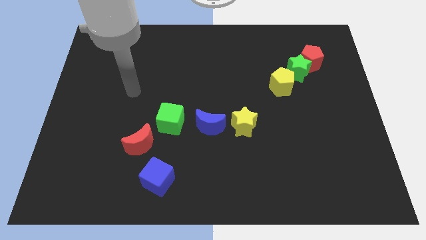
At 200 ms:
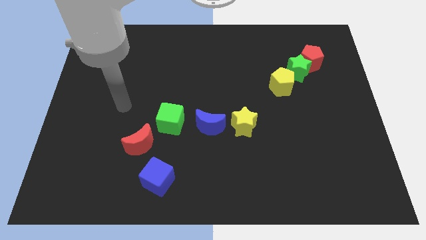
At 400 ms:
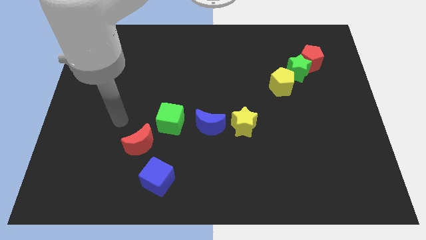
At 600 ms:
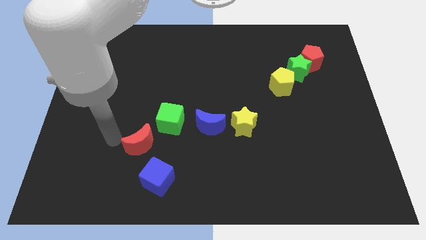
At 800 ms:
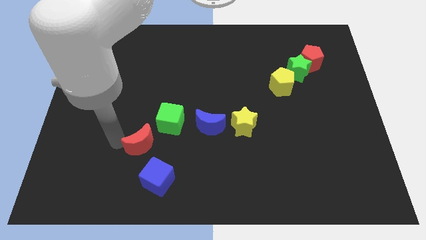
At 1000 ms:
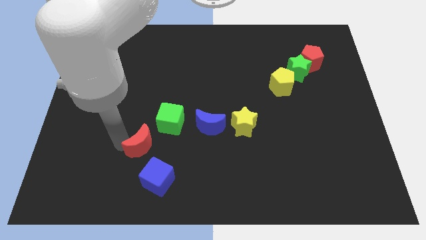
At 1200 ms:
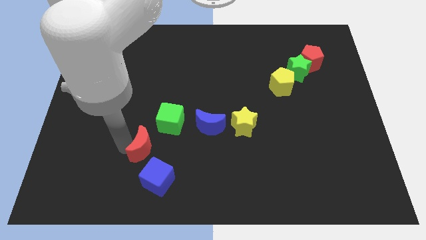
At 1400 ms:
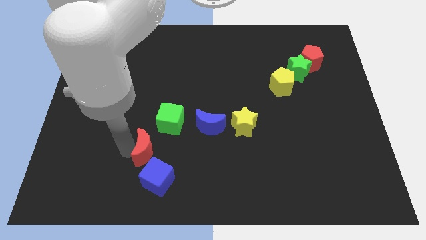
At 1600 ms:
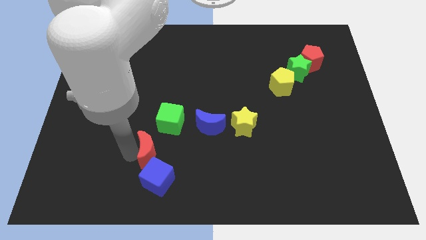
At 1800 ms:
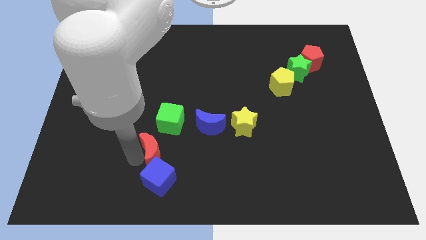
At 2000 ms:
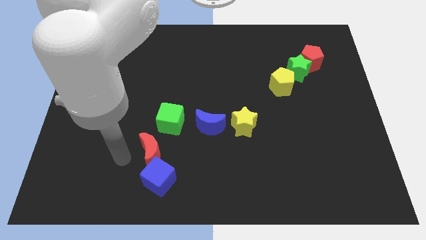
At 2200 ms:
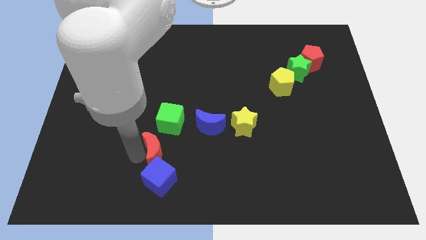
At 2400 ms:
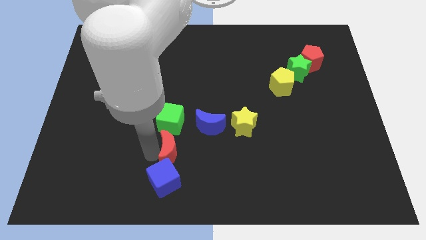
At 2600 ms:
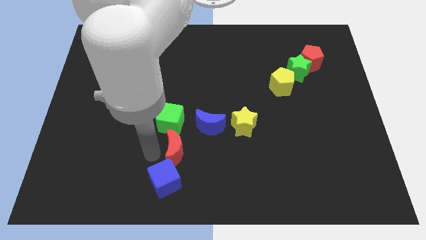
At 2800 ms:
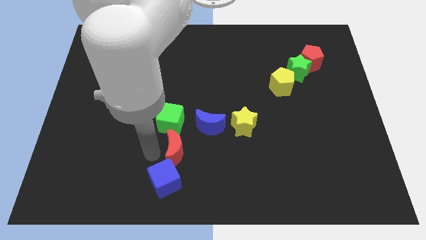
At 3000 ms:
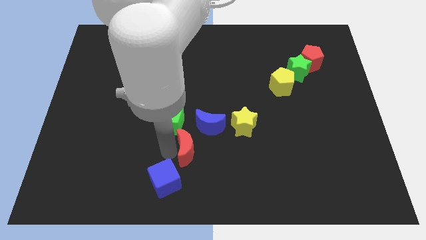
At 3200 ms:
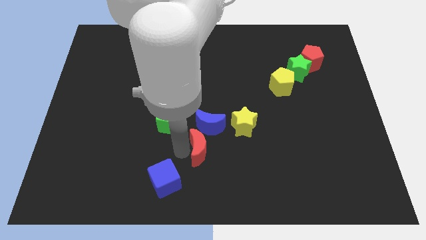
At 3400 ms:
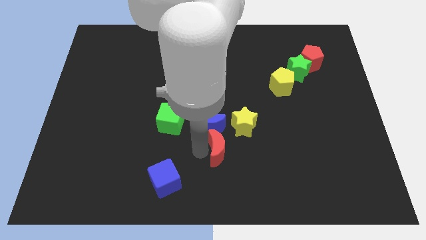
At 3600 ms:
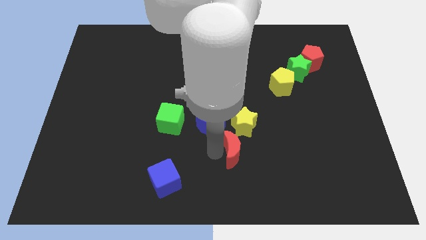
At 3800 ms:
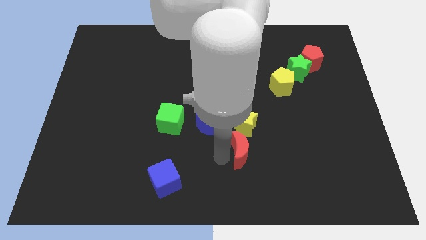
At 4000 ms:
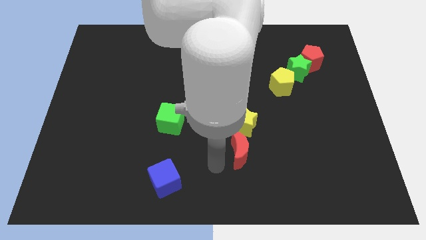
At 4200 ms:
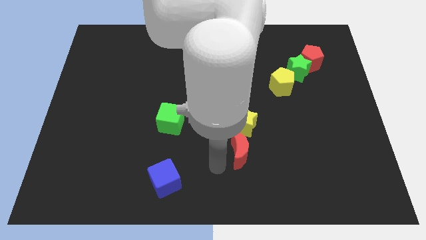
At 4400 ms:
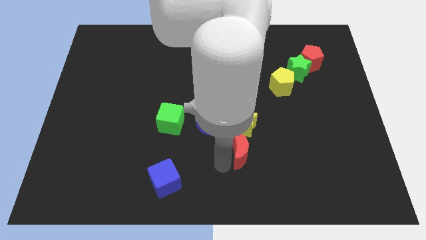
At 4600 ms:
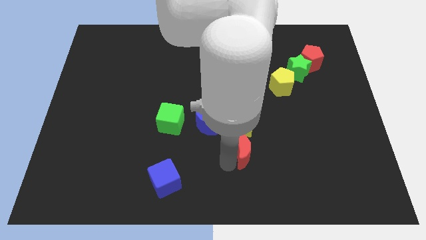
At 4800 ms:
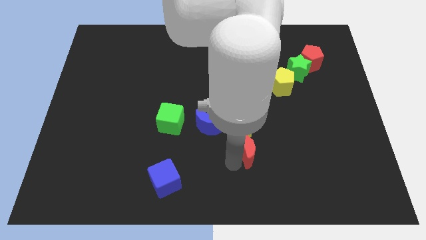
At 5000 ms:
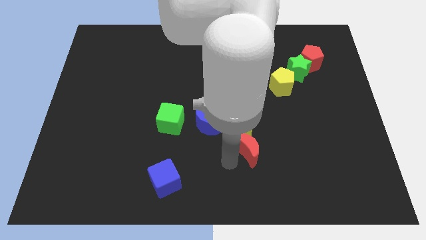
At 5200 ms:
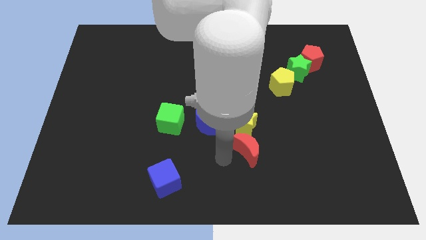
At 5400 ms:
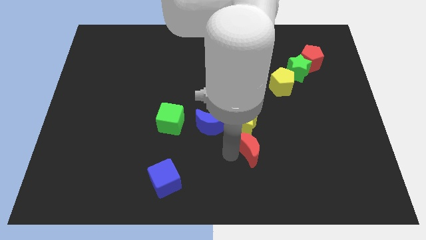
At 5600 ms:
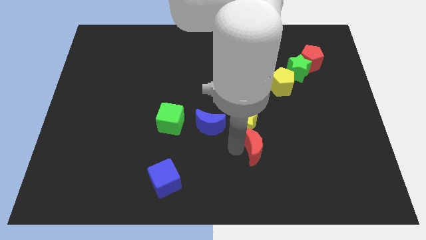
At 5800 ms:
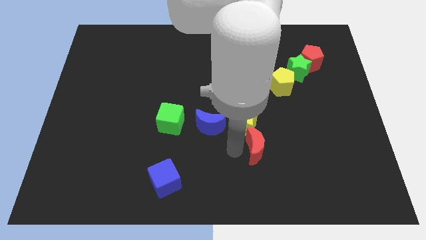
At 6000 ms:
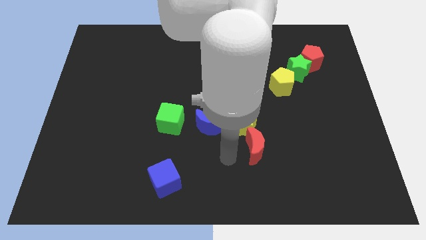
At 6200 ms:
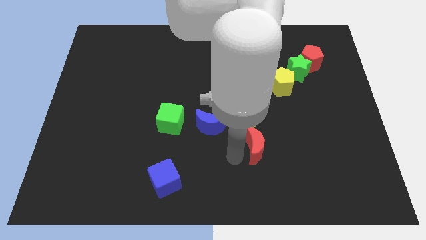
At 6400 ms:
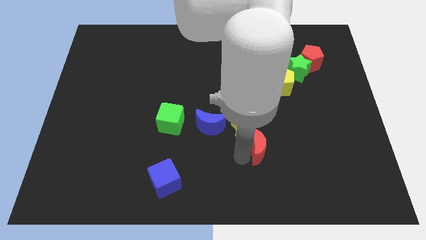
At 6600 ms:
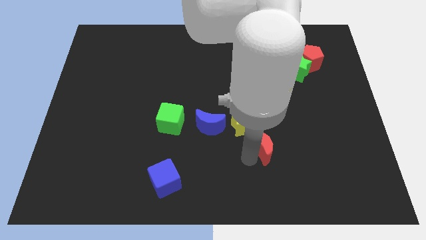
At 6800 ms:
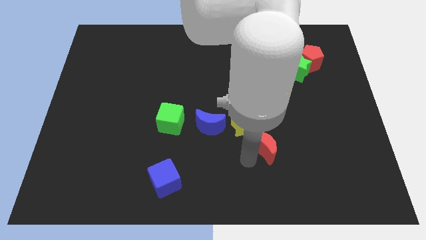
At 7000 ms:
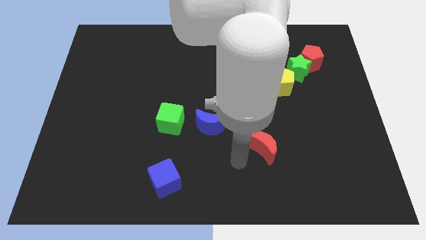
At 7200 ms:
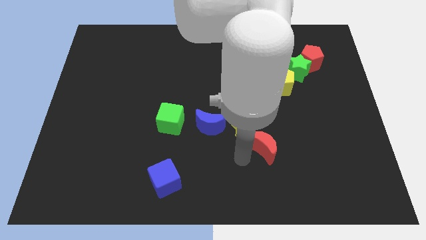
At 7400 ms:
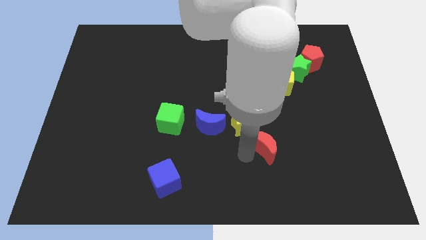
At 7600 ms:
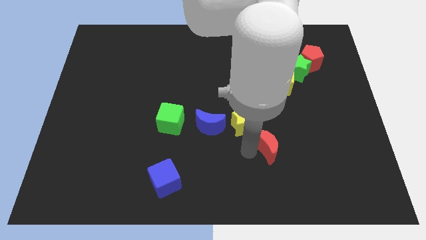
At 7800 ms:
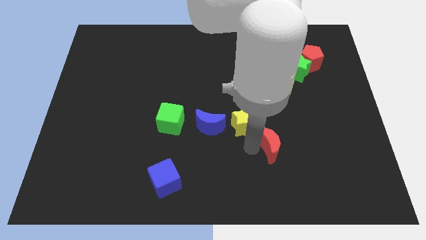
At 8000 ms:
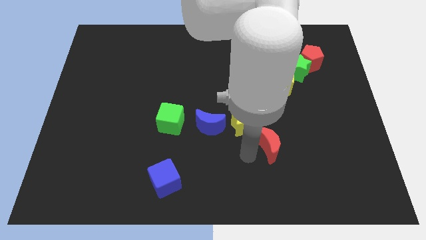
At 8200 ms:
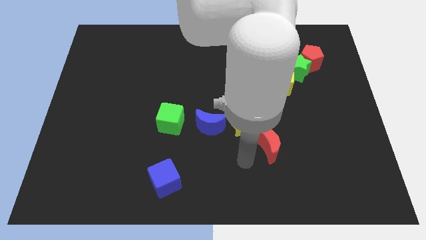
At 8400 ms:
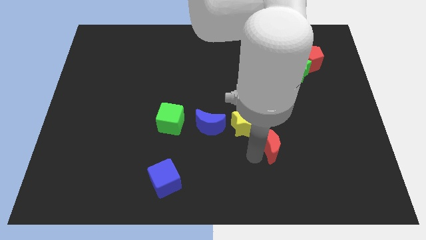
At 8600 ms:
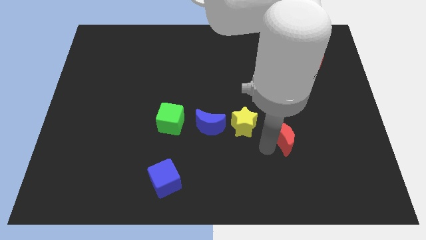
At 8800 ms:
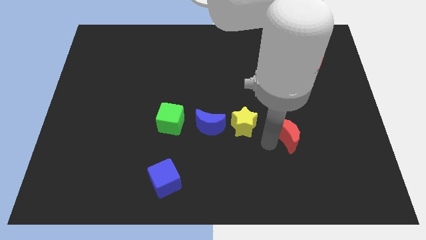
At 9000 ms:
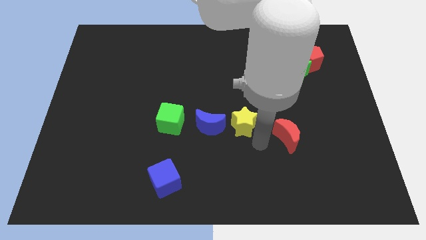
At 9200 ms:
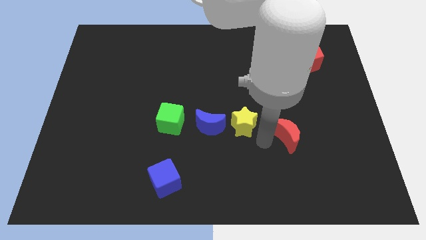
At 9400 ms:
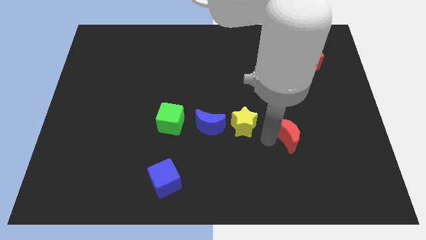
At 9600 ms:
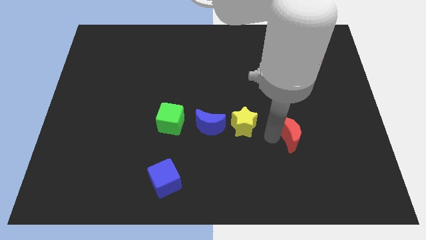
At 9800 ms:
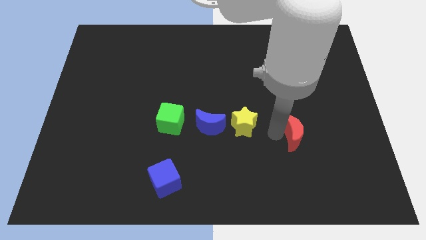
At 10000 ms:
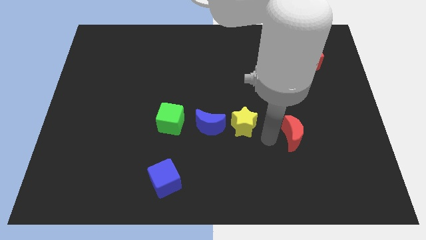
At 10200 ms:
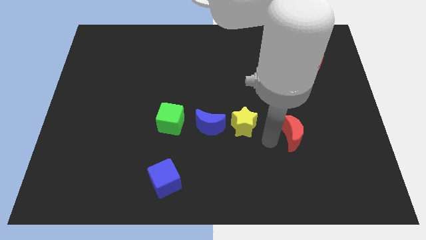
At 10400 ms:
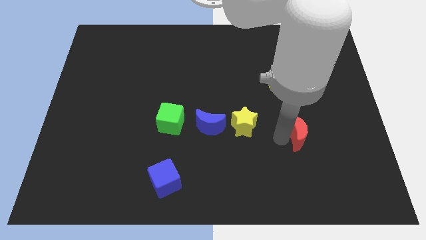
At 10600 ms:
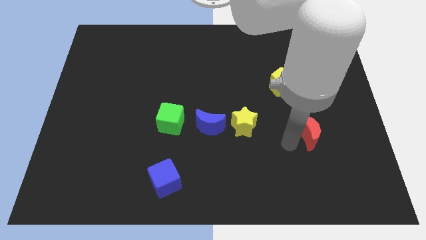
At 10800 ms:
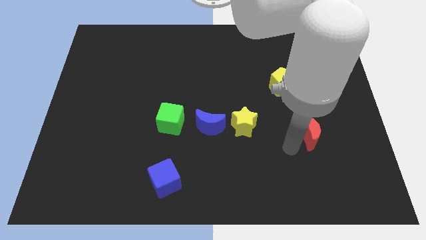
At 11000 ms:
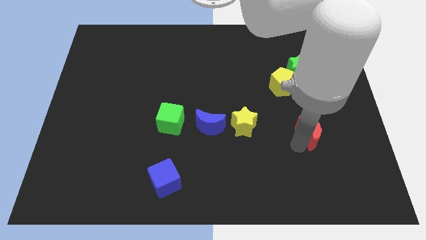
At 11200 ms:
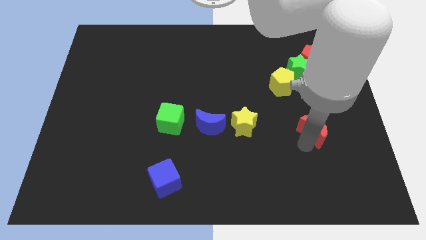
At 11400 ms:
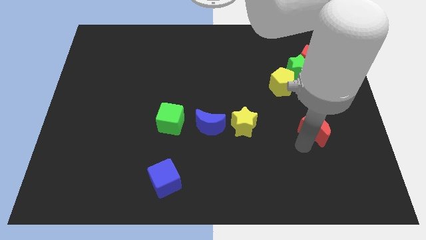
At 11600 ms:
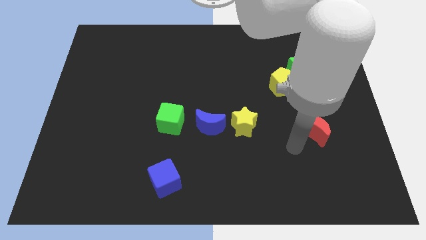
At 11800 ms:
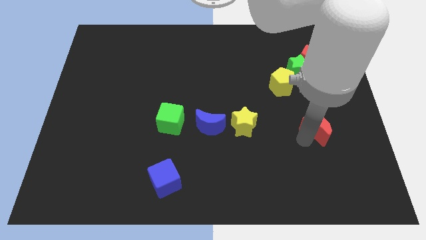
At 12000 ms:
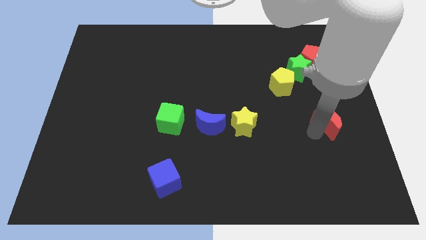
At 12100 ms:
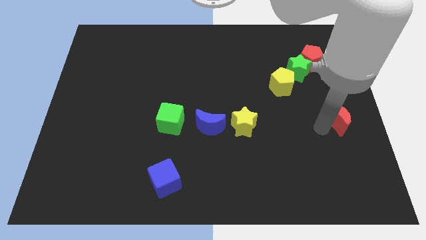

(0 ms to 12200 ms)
put the red moon to the center right

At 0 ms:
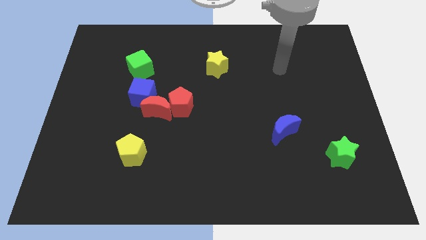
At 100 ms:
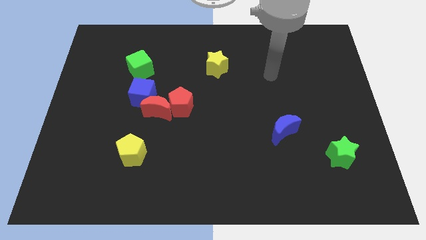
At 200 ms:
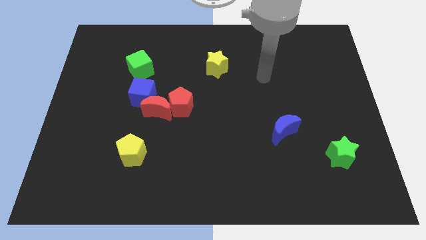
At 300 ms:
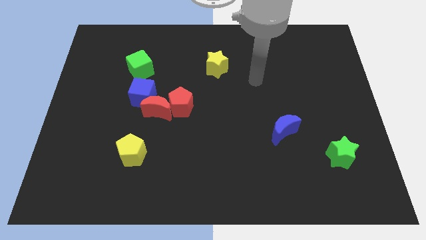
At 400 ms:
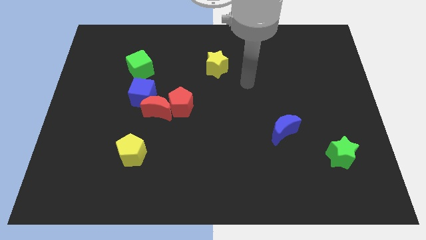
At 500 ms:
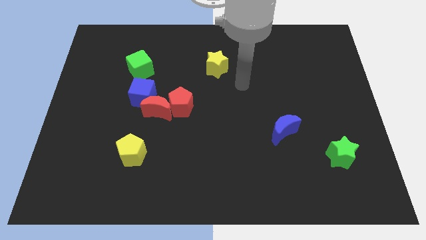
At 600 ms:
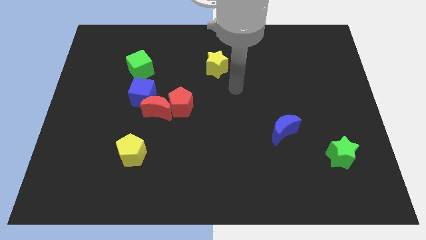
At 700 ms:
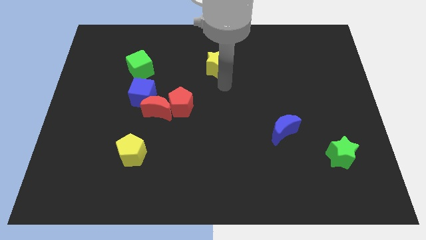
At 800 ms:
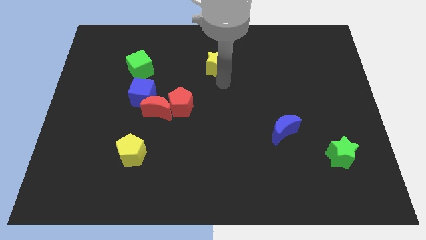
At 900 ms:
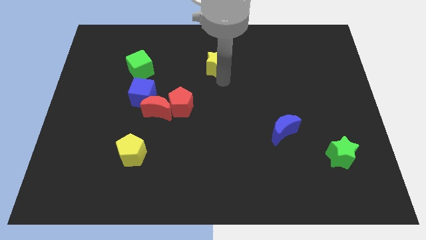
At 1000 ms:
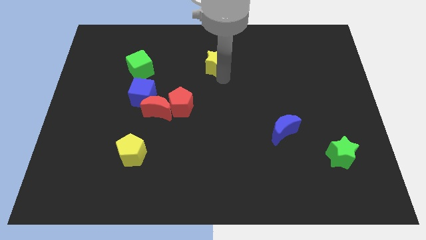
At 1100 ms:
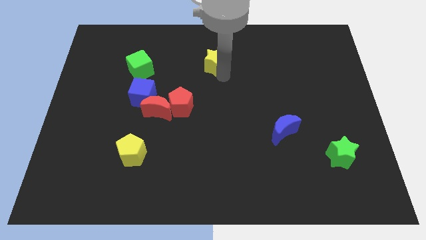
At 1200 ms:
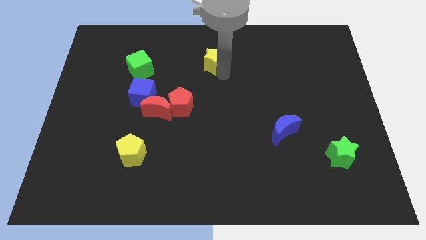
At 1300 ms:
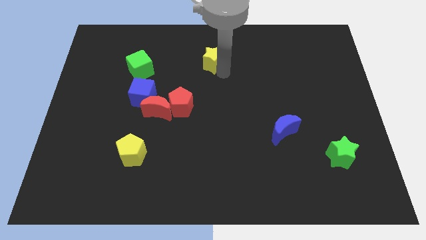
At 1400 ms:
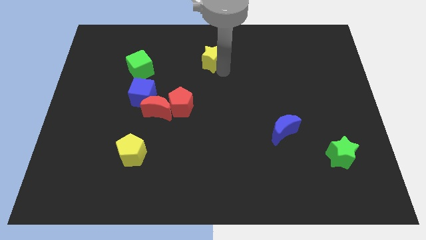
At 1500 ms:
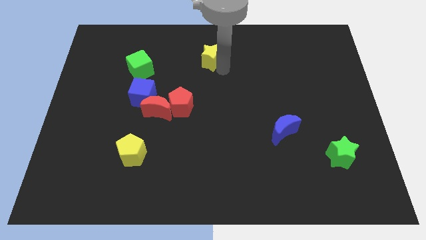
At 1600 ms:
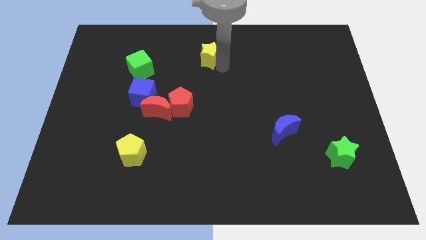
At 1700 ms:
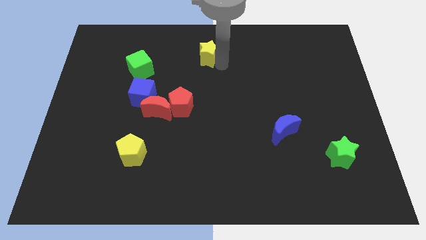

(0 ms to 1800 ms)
push the yellow star to the top side
